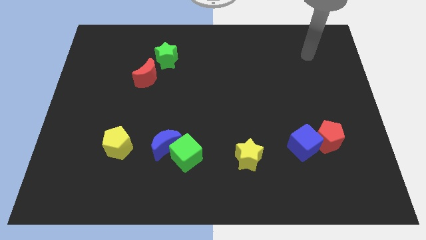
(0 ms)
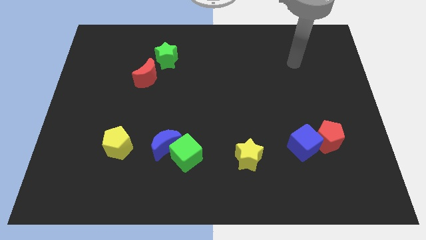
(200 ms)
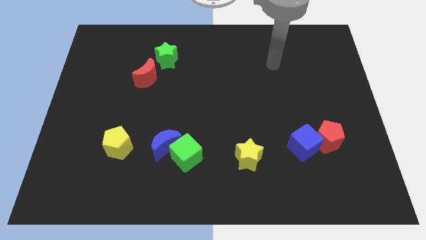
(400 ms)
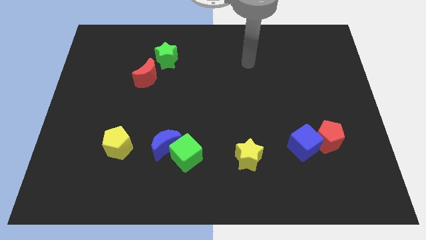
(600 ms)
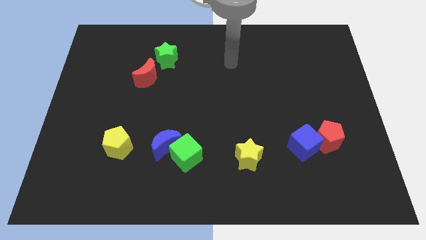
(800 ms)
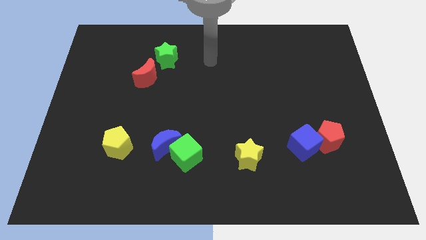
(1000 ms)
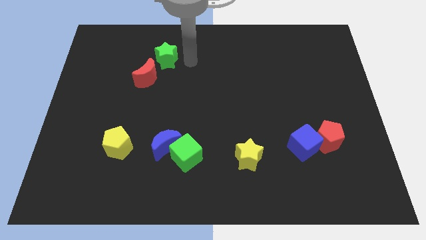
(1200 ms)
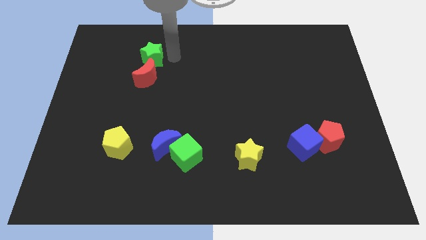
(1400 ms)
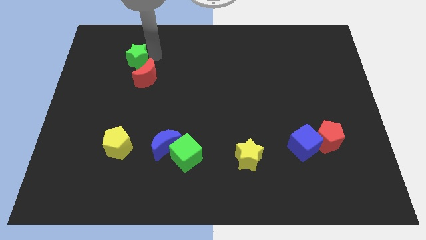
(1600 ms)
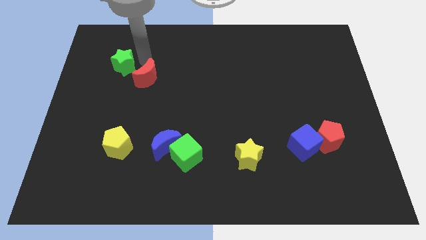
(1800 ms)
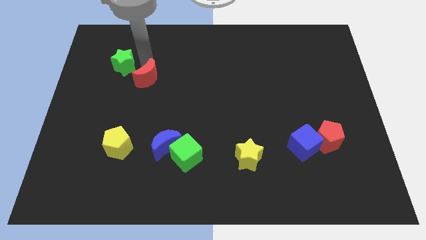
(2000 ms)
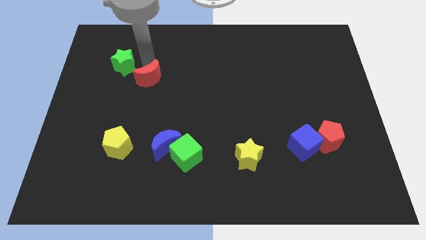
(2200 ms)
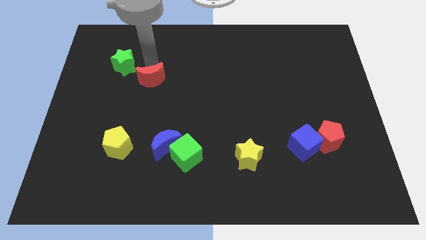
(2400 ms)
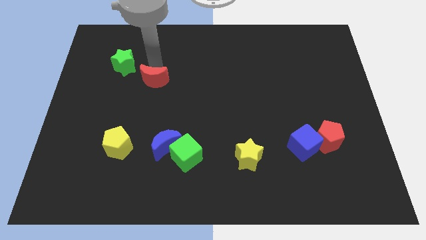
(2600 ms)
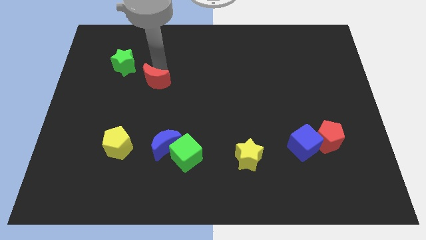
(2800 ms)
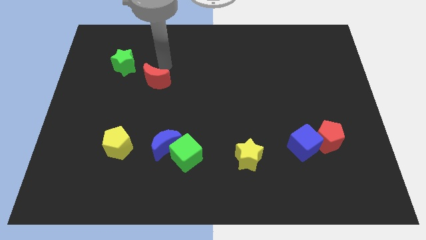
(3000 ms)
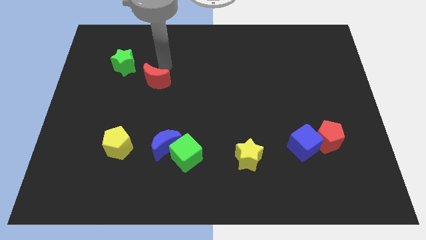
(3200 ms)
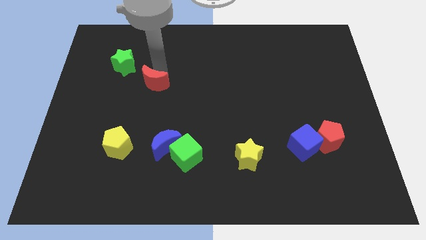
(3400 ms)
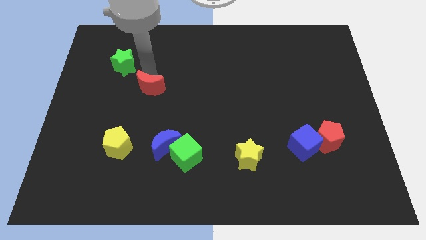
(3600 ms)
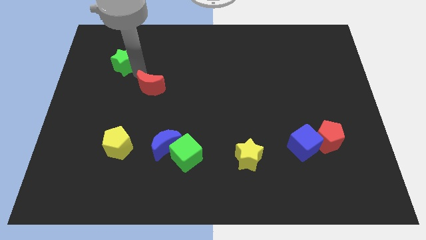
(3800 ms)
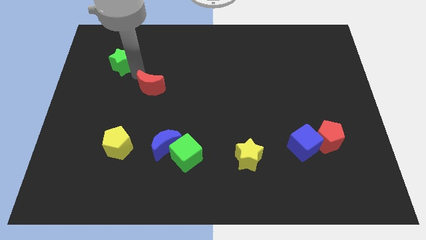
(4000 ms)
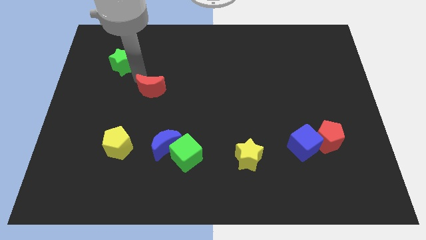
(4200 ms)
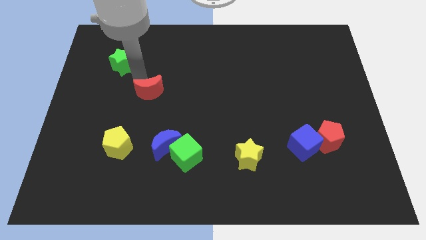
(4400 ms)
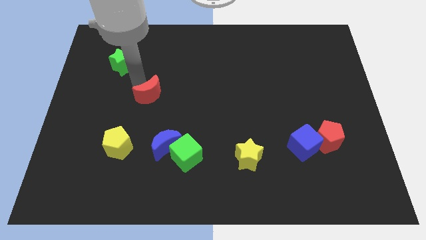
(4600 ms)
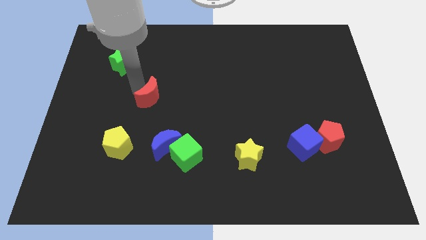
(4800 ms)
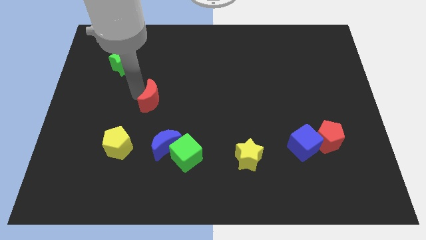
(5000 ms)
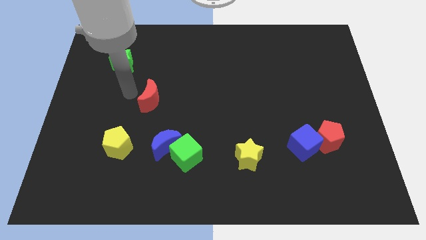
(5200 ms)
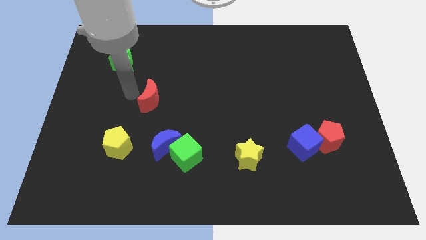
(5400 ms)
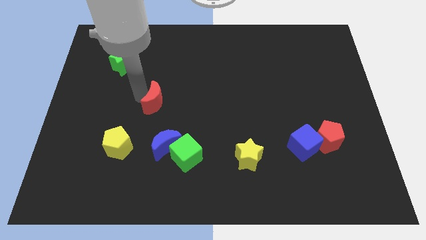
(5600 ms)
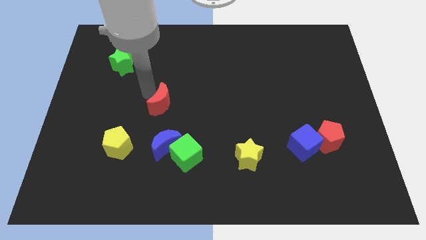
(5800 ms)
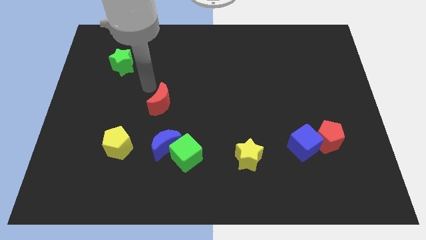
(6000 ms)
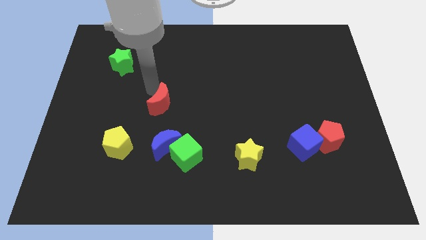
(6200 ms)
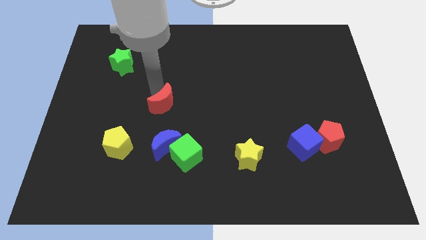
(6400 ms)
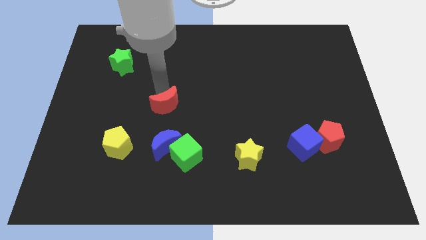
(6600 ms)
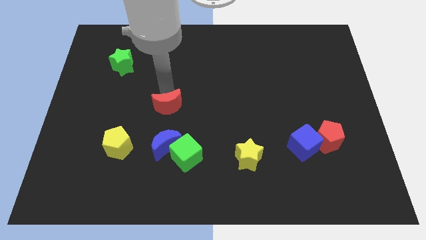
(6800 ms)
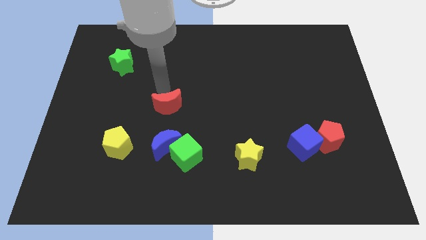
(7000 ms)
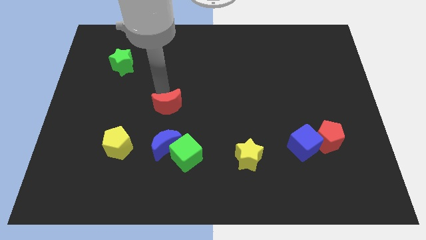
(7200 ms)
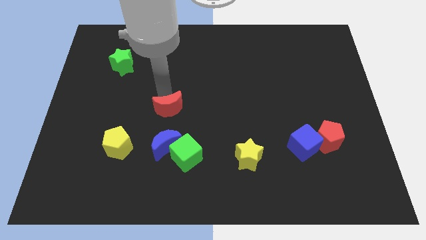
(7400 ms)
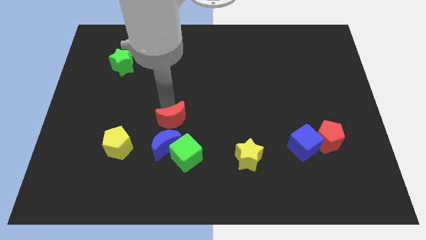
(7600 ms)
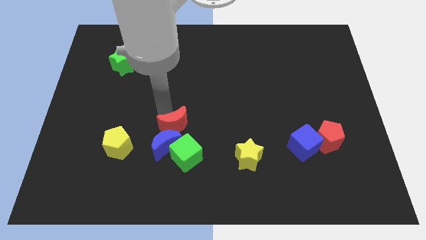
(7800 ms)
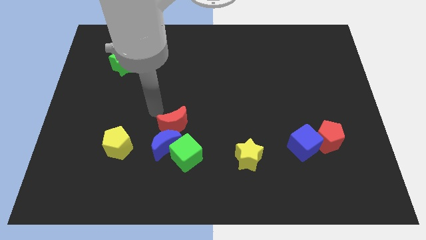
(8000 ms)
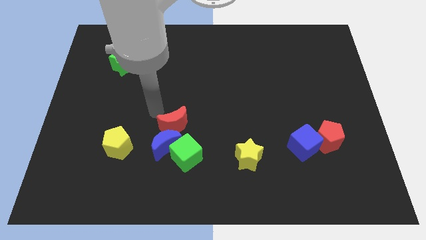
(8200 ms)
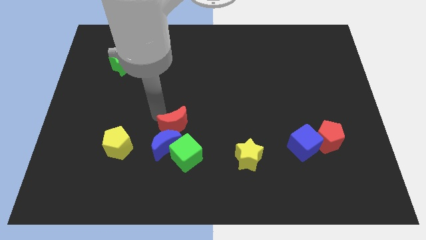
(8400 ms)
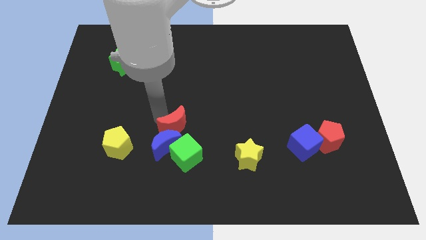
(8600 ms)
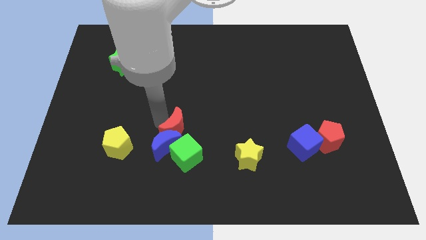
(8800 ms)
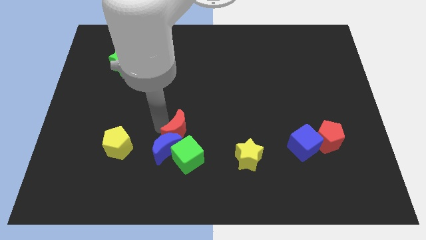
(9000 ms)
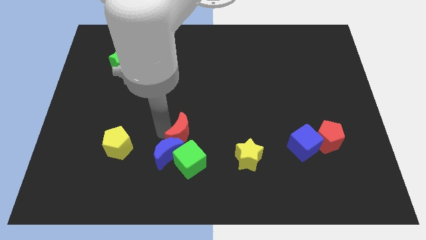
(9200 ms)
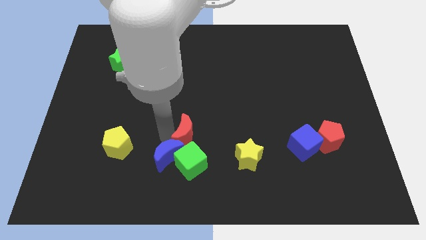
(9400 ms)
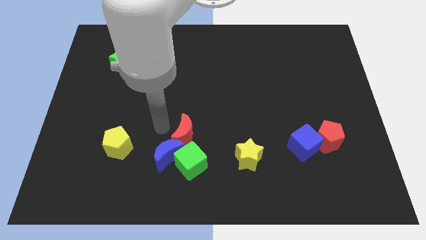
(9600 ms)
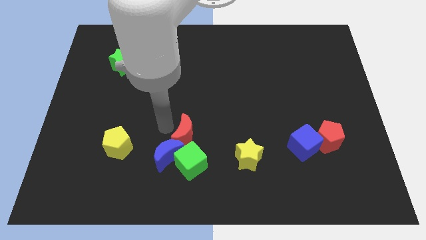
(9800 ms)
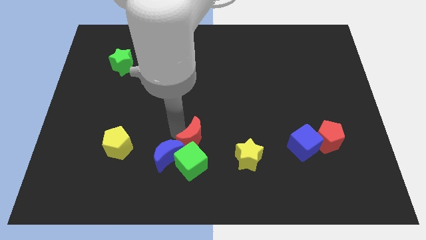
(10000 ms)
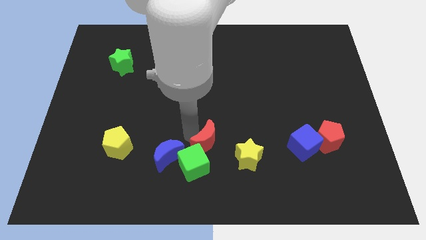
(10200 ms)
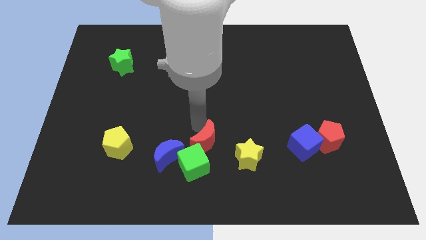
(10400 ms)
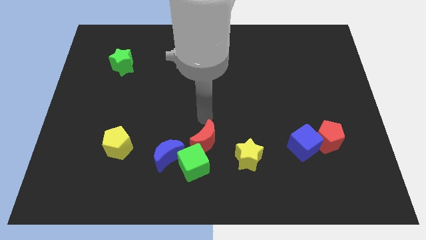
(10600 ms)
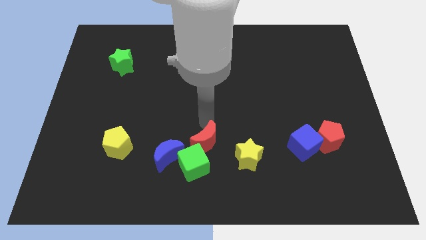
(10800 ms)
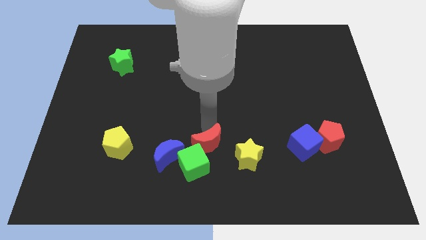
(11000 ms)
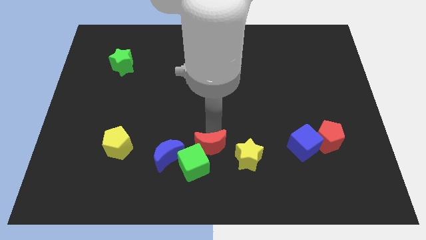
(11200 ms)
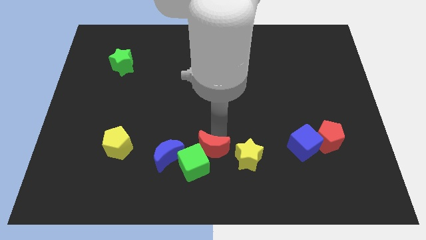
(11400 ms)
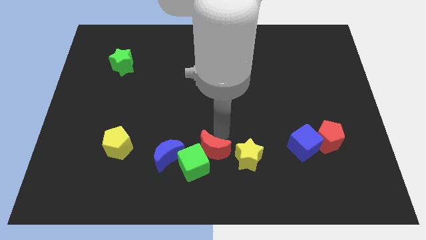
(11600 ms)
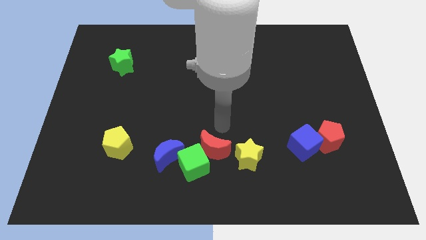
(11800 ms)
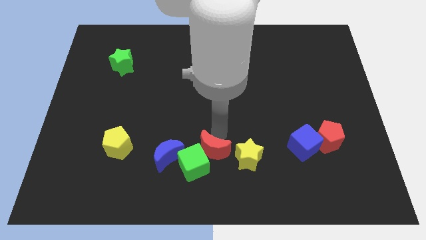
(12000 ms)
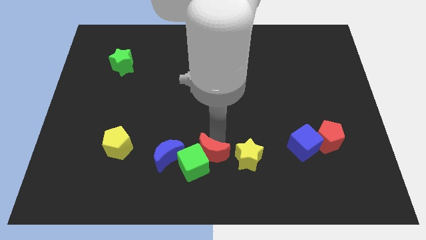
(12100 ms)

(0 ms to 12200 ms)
move the red moon to the bottom

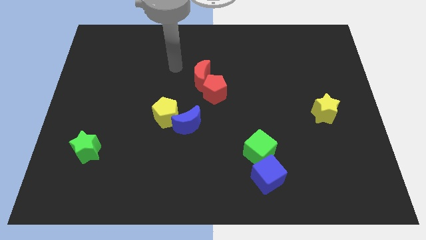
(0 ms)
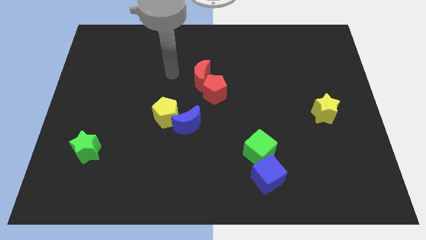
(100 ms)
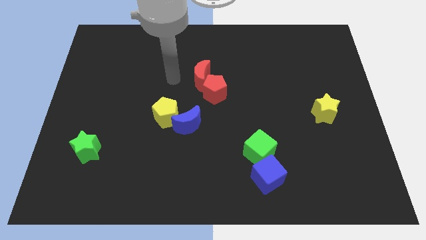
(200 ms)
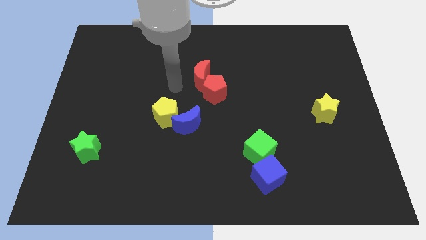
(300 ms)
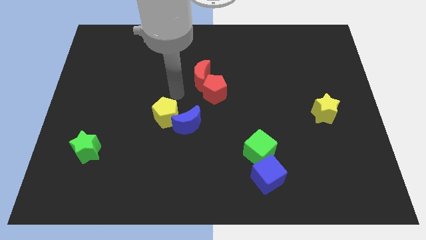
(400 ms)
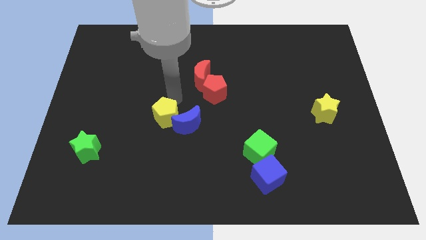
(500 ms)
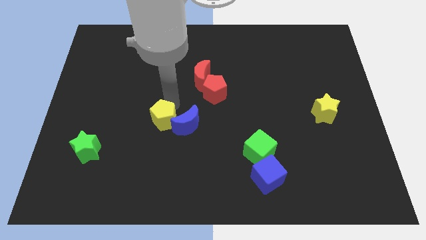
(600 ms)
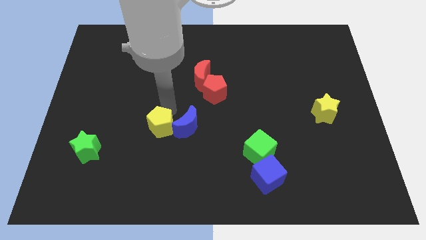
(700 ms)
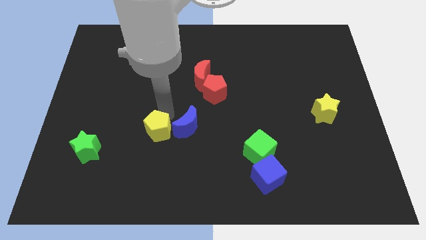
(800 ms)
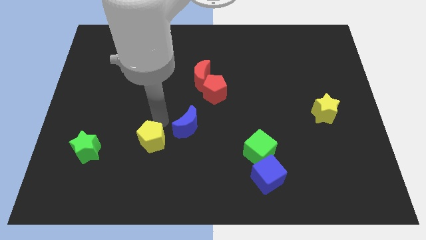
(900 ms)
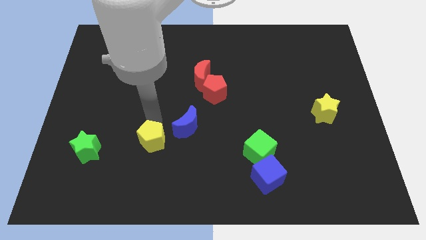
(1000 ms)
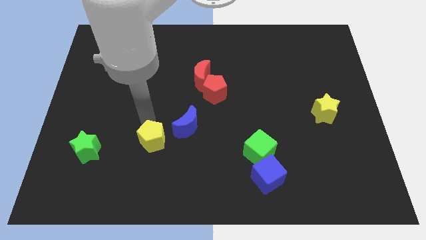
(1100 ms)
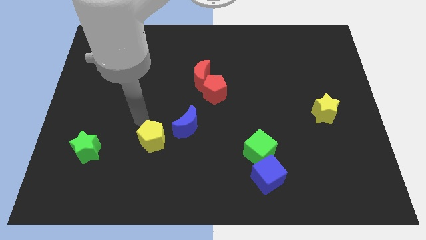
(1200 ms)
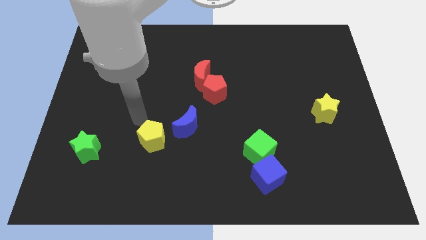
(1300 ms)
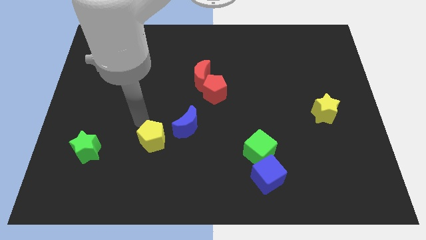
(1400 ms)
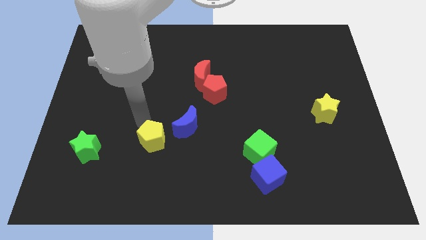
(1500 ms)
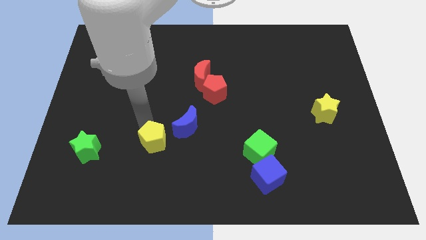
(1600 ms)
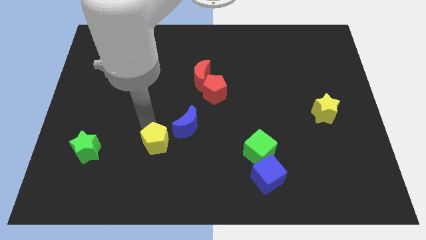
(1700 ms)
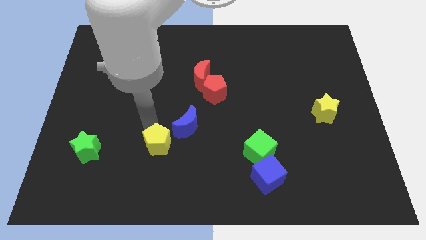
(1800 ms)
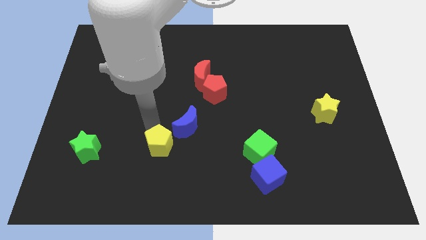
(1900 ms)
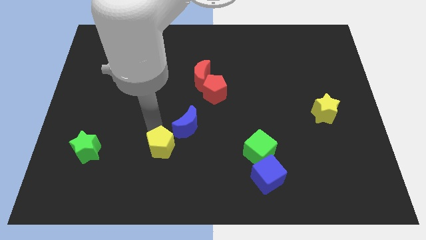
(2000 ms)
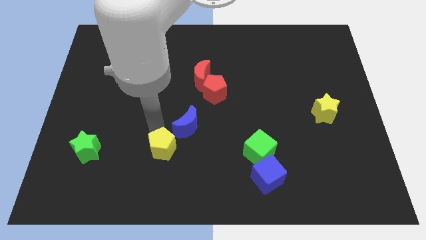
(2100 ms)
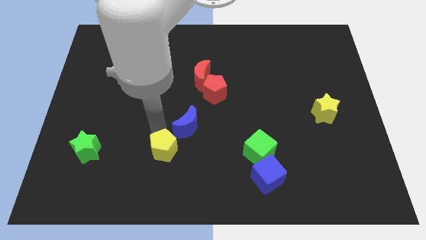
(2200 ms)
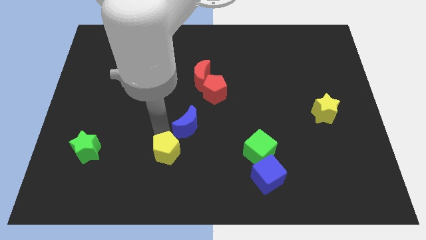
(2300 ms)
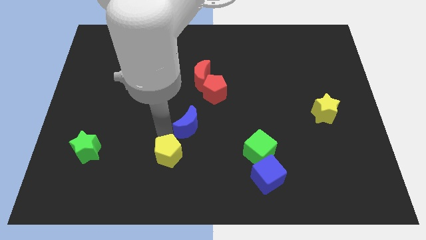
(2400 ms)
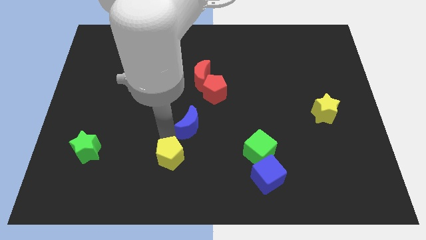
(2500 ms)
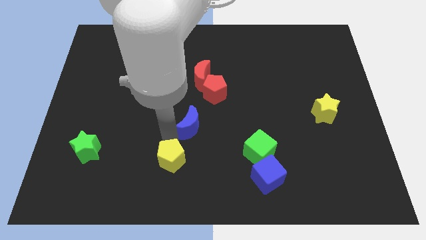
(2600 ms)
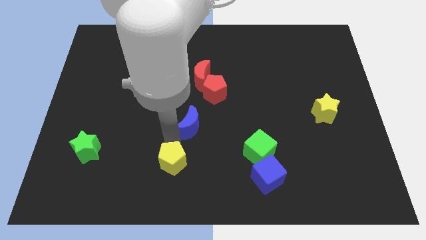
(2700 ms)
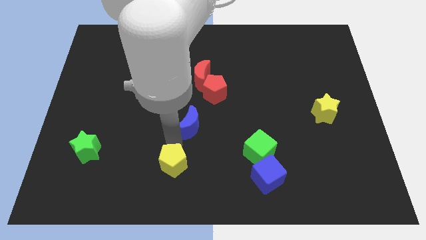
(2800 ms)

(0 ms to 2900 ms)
slide the yellow pentagon to the bottom
